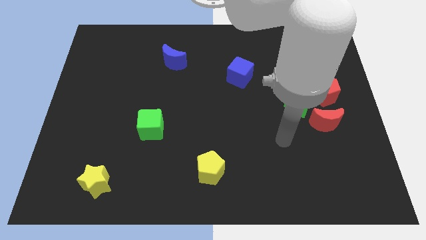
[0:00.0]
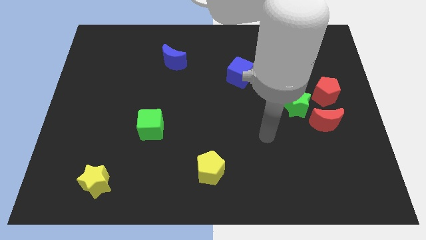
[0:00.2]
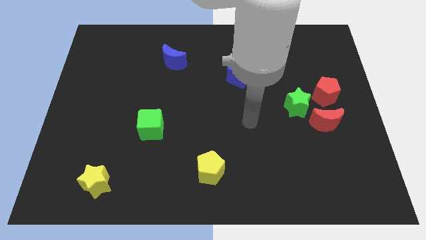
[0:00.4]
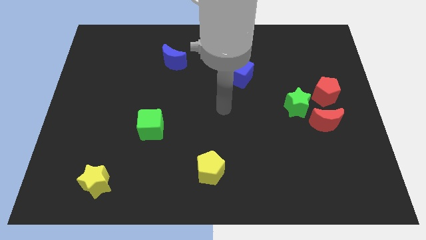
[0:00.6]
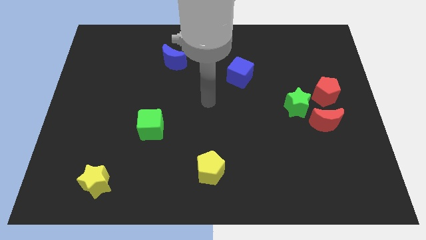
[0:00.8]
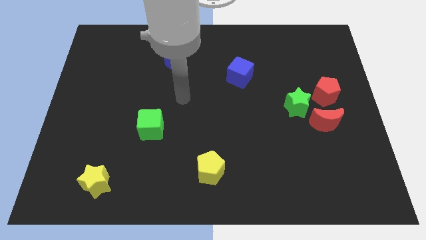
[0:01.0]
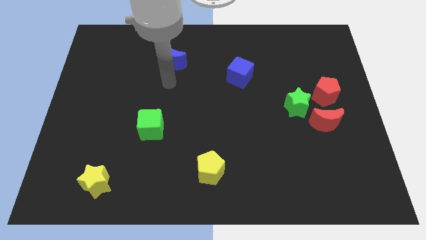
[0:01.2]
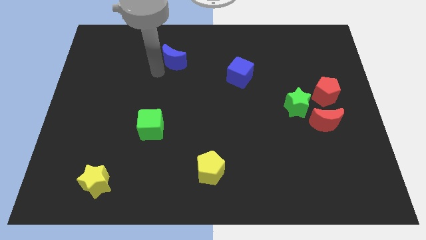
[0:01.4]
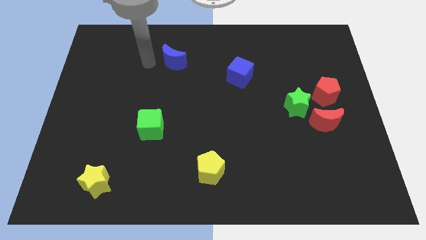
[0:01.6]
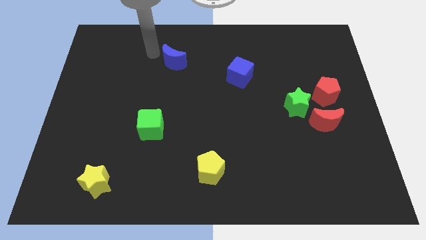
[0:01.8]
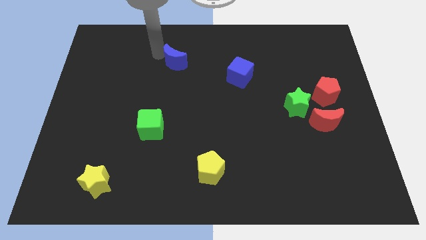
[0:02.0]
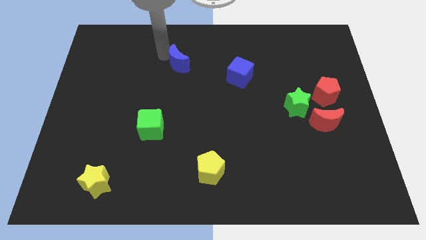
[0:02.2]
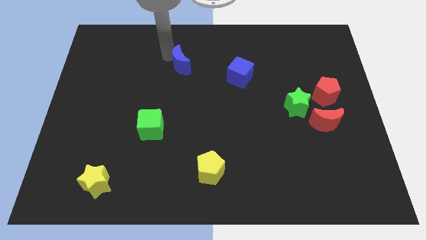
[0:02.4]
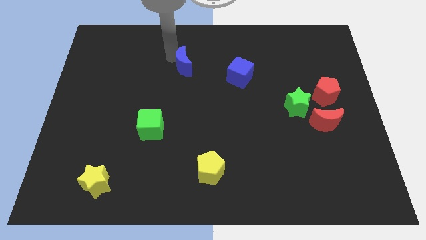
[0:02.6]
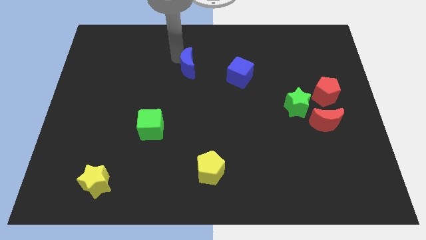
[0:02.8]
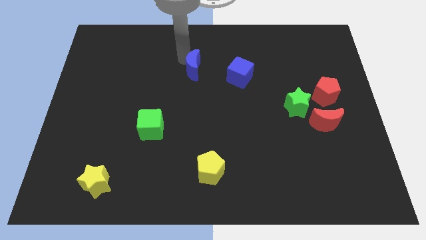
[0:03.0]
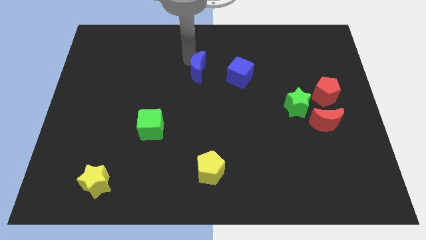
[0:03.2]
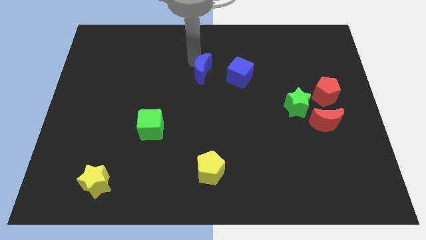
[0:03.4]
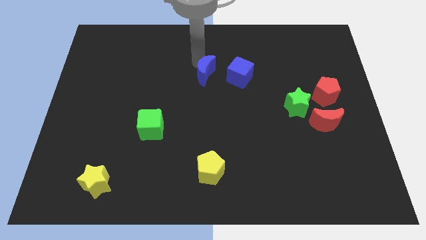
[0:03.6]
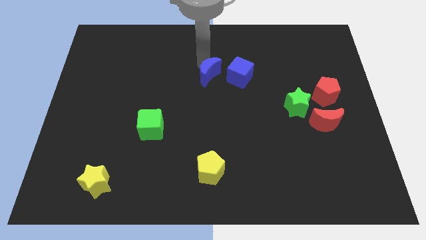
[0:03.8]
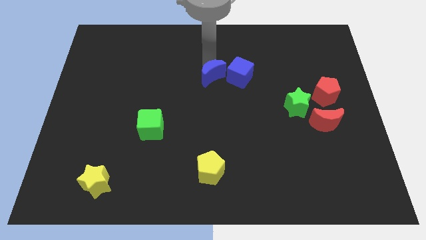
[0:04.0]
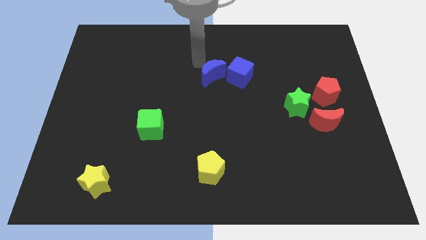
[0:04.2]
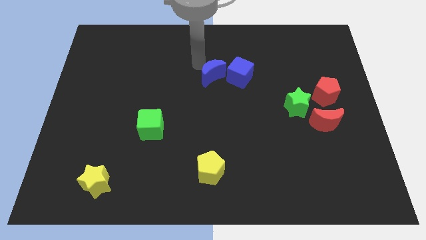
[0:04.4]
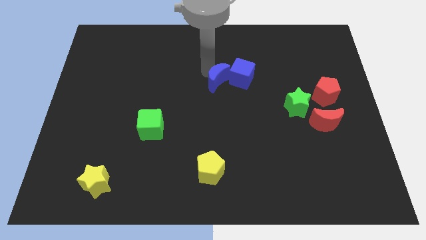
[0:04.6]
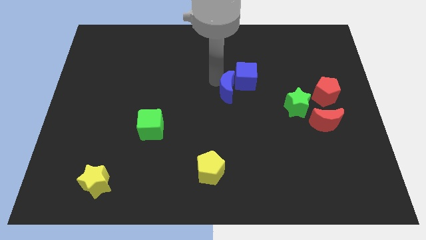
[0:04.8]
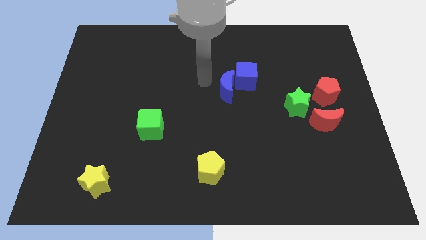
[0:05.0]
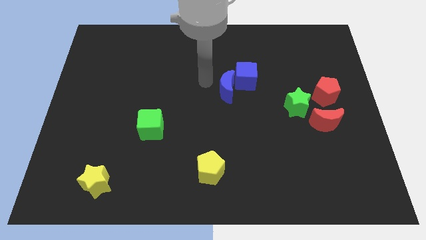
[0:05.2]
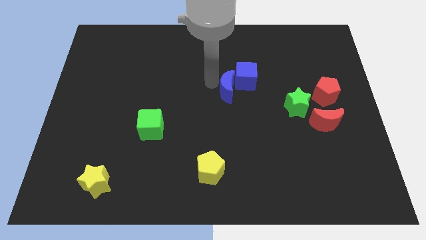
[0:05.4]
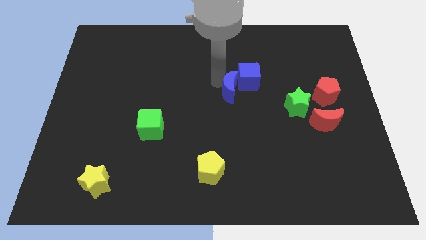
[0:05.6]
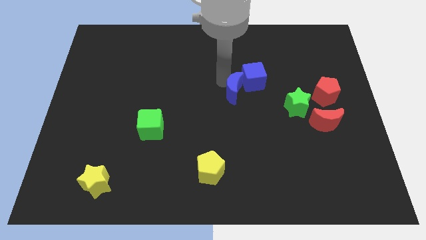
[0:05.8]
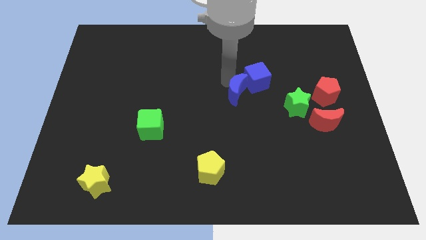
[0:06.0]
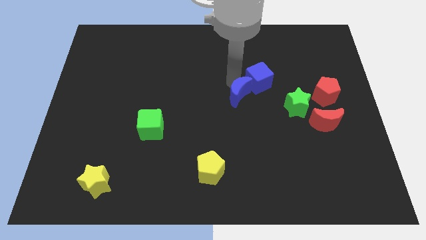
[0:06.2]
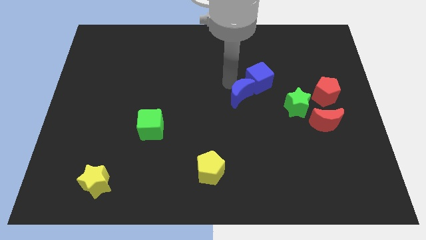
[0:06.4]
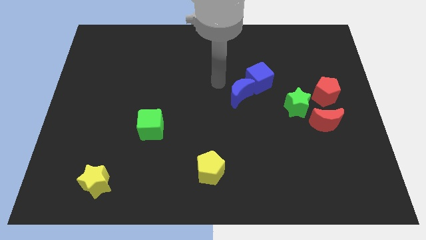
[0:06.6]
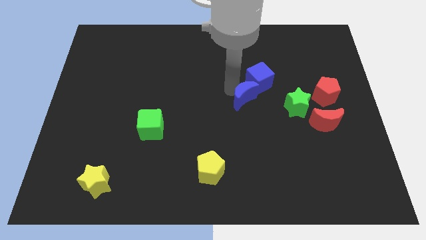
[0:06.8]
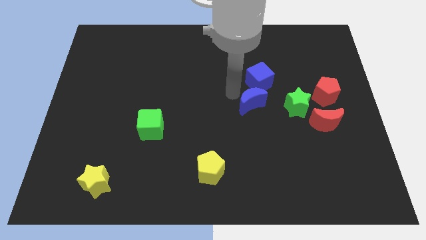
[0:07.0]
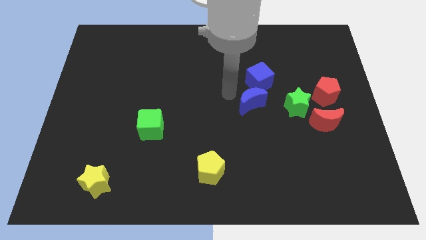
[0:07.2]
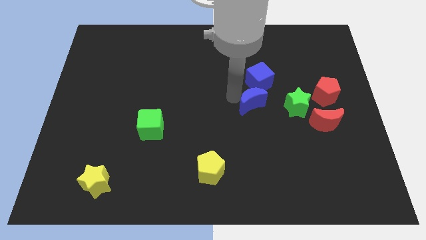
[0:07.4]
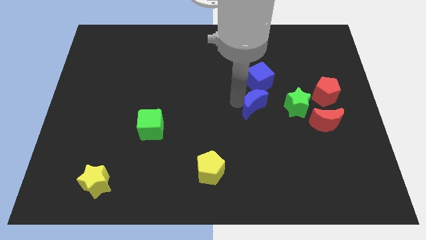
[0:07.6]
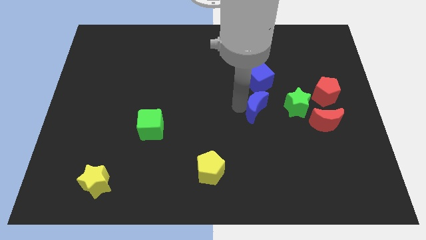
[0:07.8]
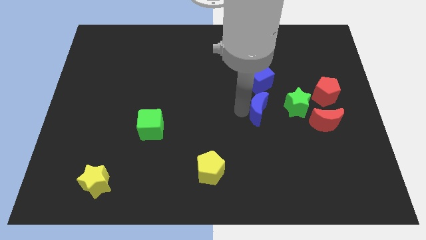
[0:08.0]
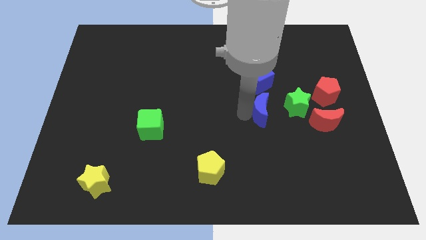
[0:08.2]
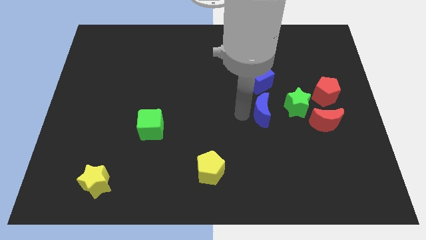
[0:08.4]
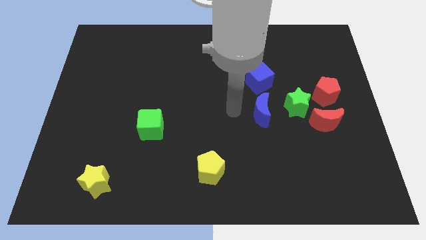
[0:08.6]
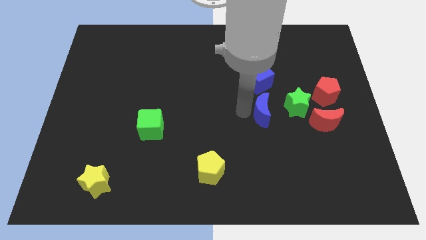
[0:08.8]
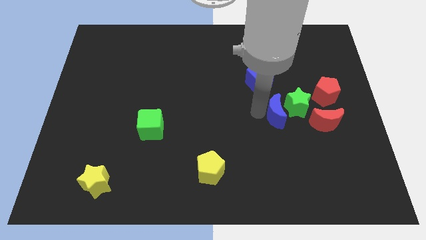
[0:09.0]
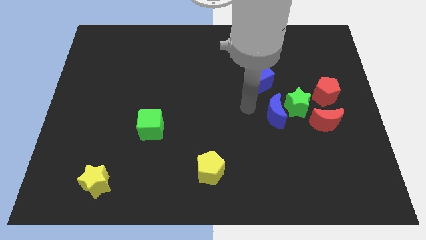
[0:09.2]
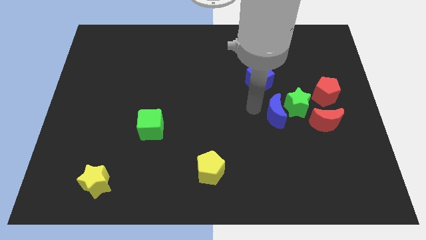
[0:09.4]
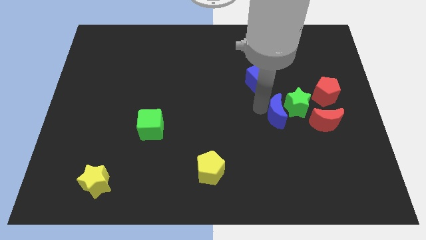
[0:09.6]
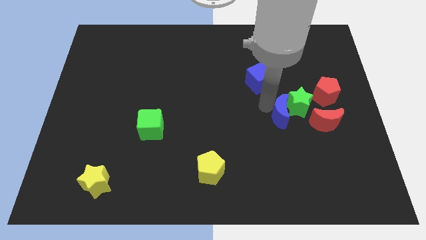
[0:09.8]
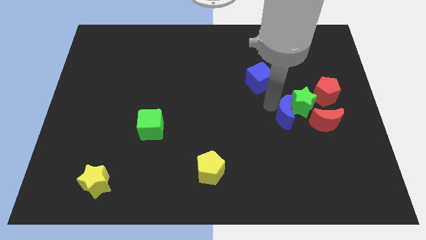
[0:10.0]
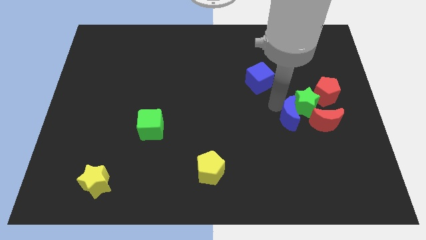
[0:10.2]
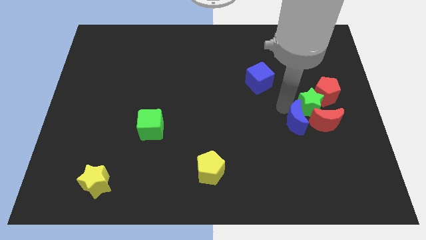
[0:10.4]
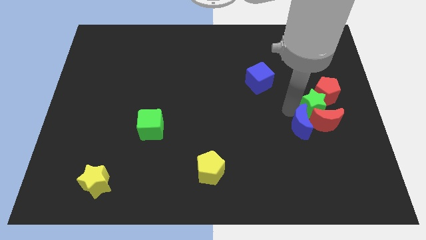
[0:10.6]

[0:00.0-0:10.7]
put the blue moon to the red moon

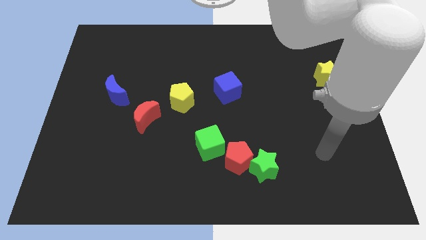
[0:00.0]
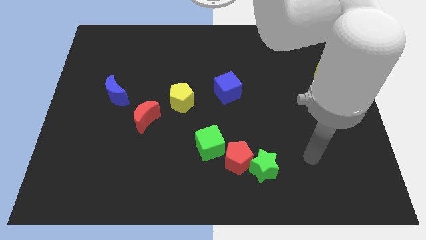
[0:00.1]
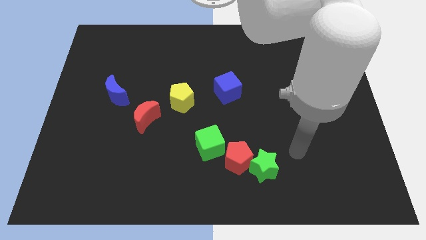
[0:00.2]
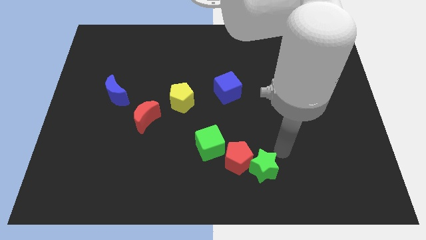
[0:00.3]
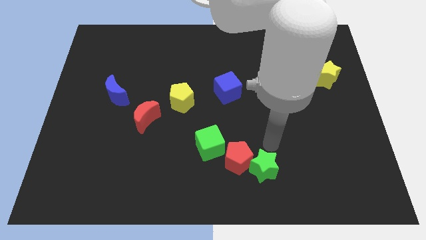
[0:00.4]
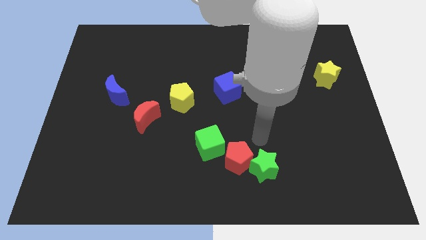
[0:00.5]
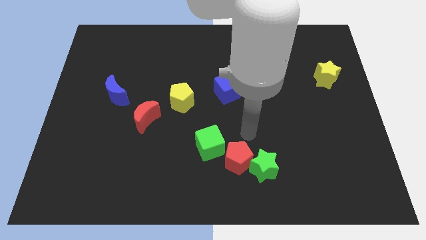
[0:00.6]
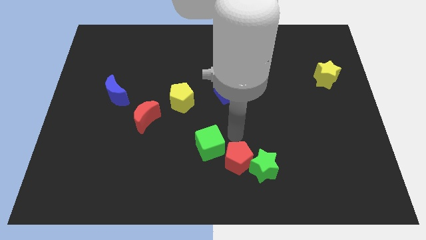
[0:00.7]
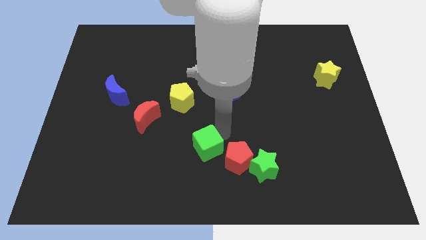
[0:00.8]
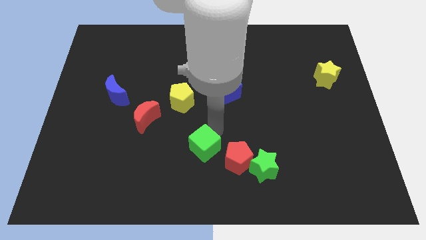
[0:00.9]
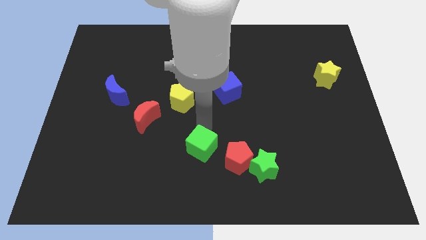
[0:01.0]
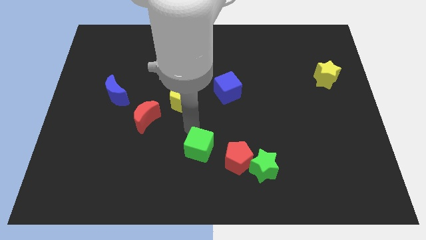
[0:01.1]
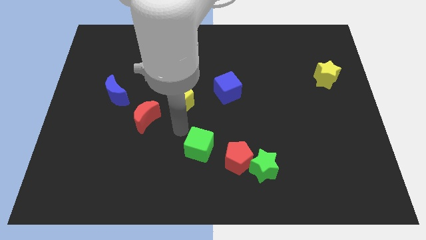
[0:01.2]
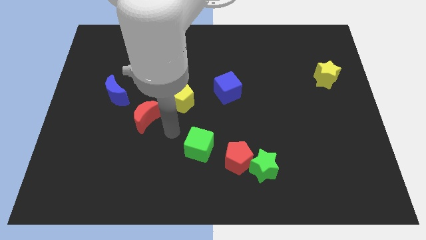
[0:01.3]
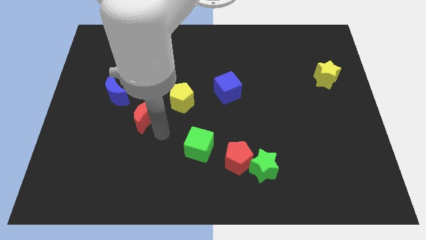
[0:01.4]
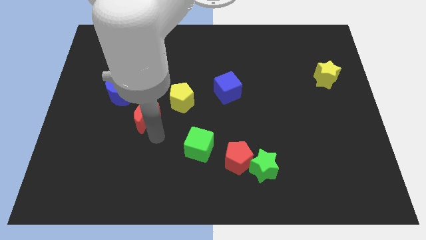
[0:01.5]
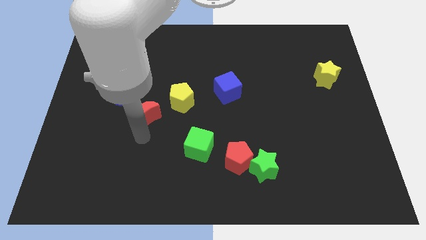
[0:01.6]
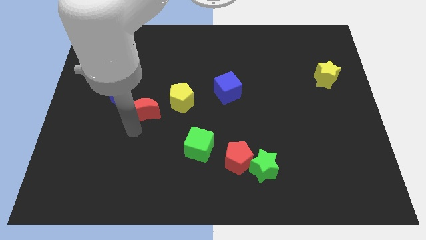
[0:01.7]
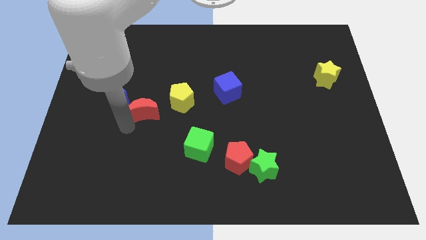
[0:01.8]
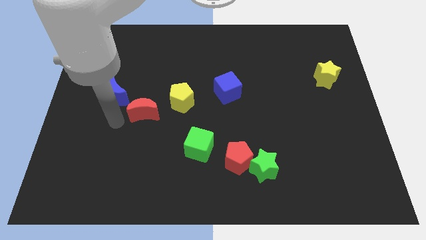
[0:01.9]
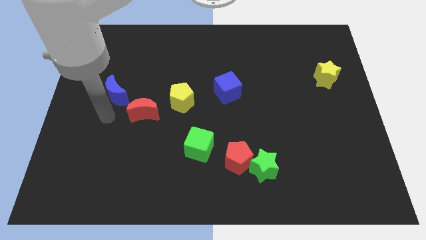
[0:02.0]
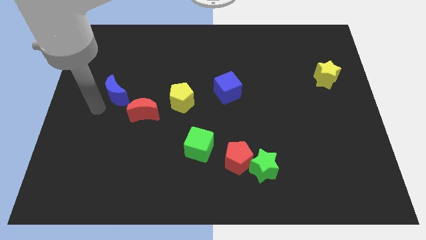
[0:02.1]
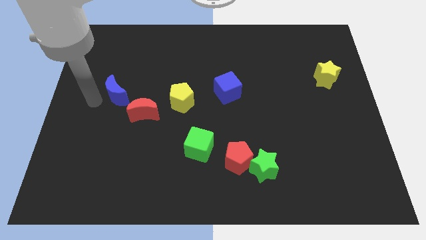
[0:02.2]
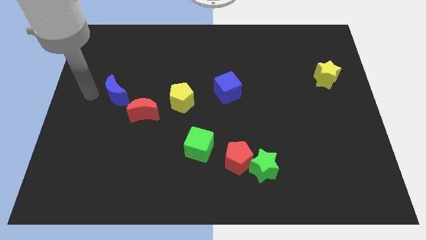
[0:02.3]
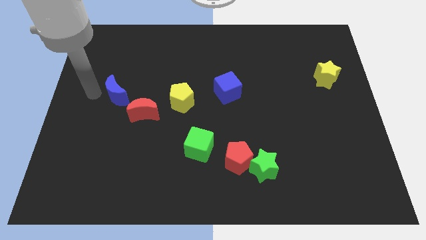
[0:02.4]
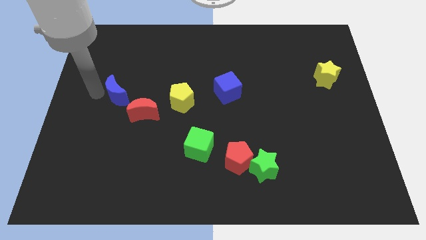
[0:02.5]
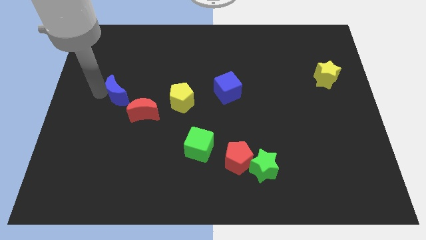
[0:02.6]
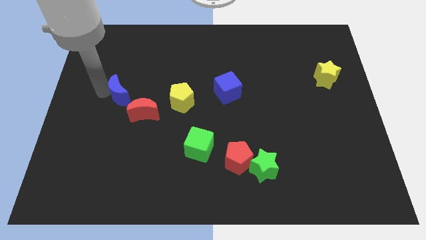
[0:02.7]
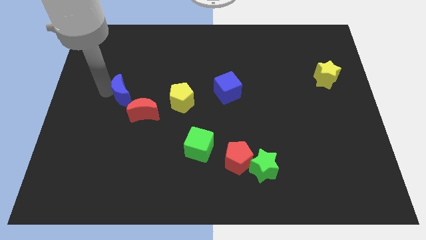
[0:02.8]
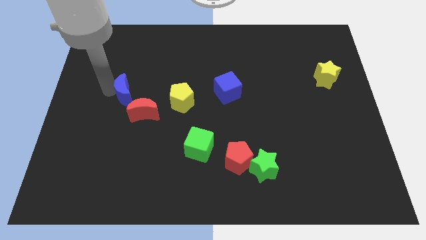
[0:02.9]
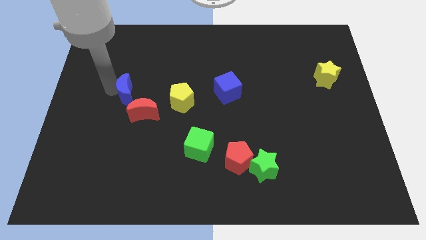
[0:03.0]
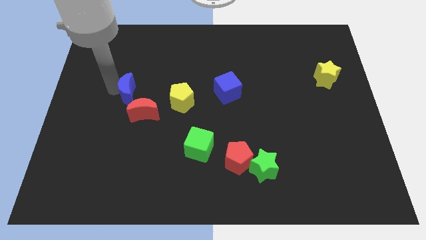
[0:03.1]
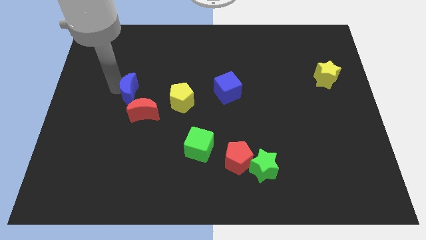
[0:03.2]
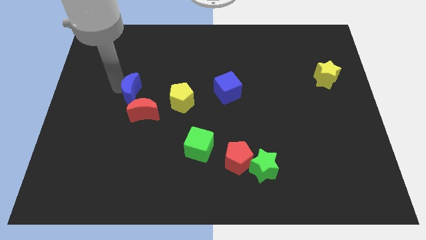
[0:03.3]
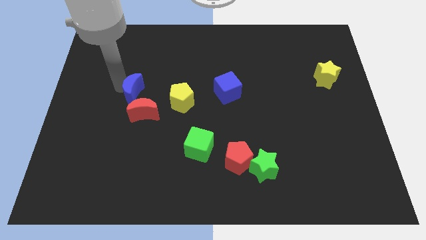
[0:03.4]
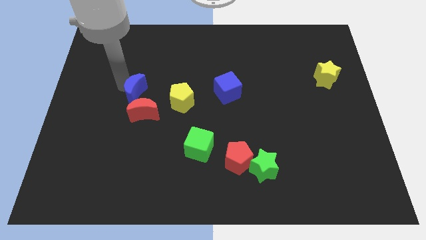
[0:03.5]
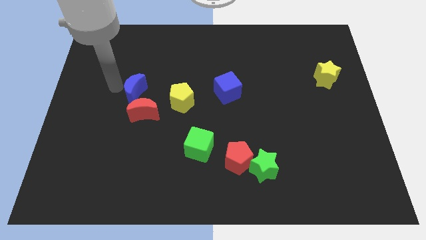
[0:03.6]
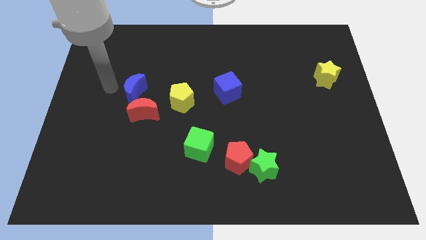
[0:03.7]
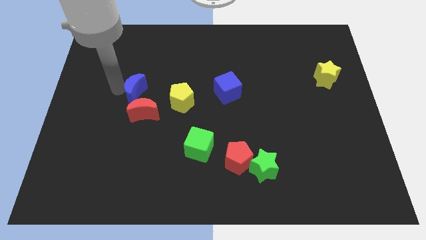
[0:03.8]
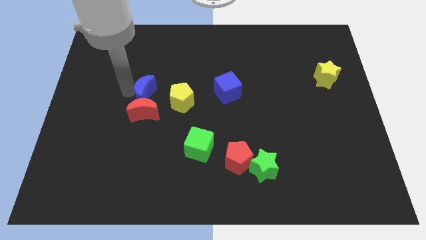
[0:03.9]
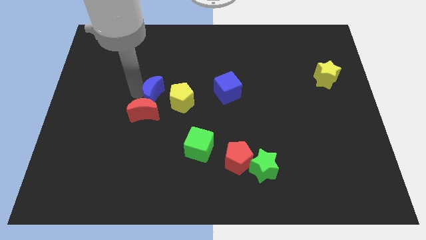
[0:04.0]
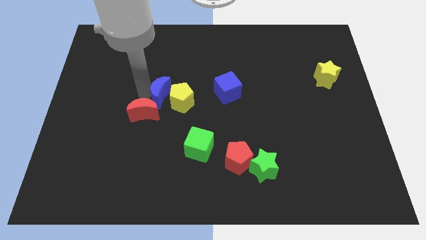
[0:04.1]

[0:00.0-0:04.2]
put the blue moon to the yellow pentagon
